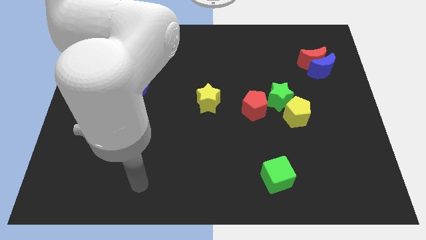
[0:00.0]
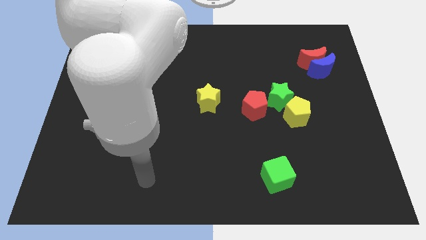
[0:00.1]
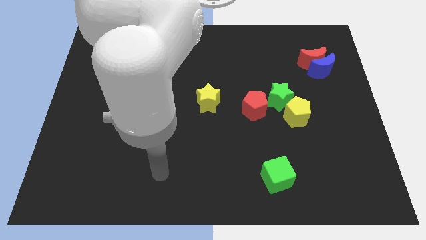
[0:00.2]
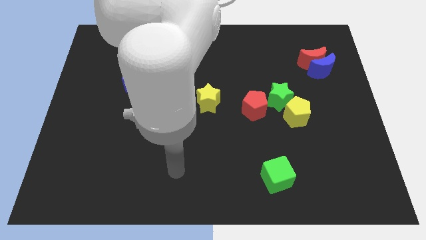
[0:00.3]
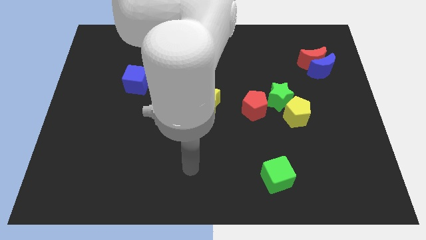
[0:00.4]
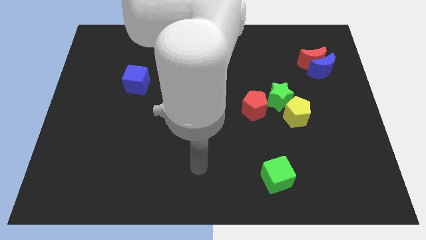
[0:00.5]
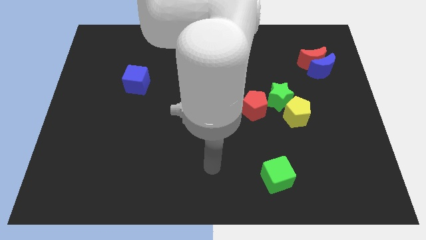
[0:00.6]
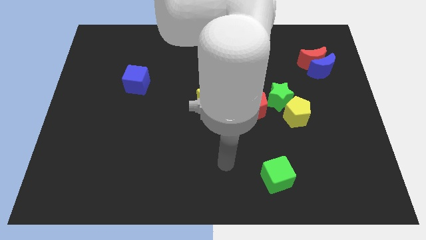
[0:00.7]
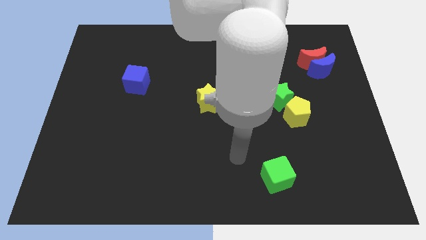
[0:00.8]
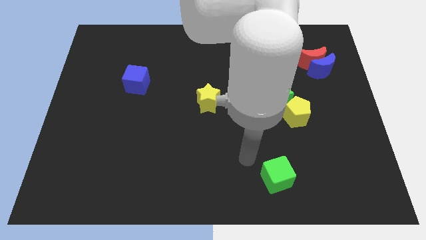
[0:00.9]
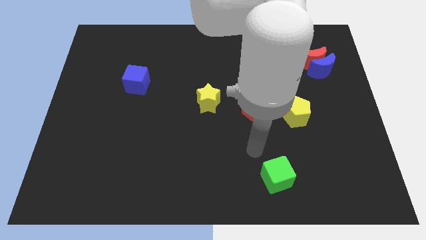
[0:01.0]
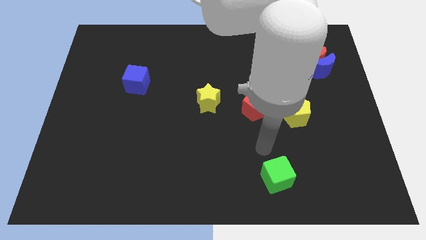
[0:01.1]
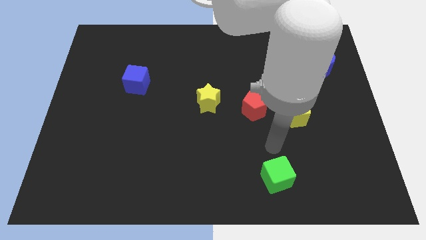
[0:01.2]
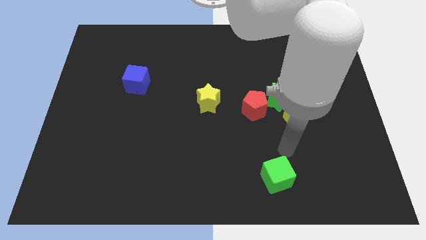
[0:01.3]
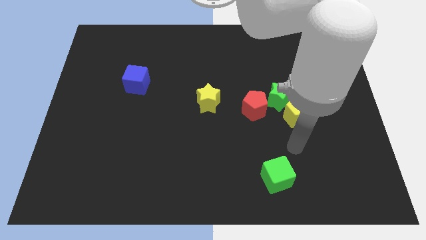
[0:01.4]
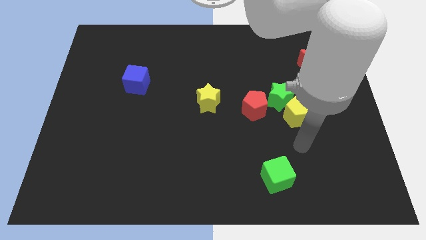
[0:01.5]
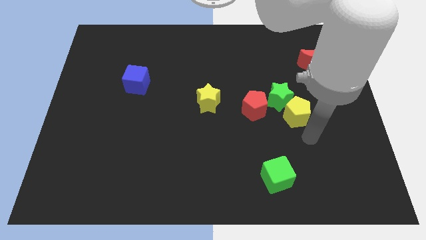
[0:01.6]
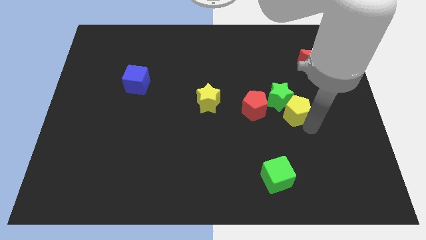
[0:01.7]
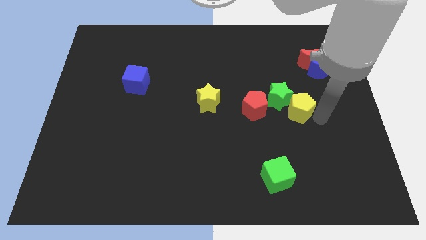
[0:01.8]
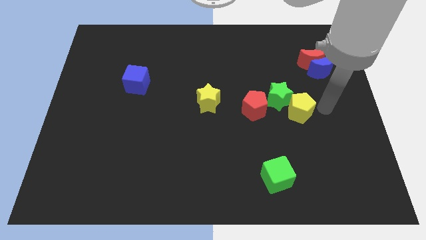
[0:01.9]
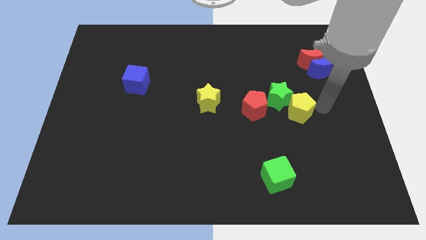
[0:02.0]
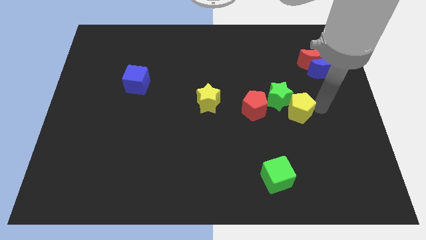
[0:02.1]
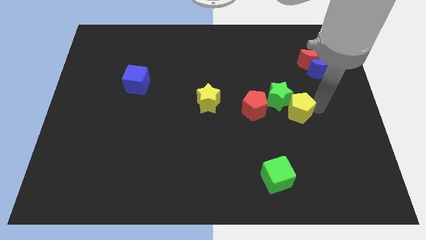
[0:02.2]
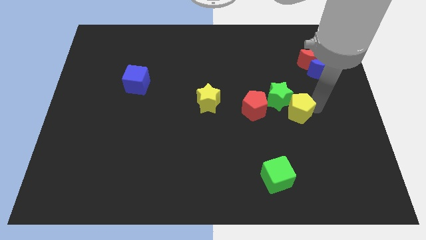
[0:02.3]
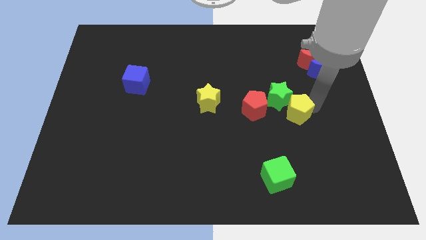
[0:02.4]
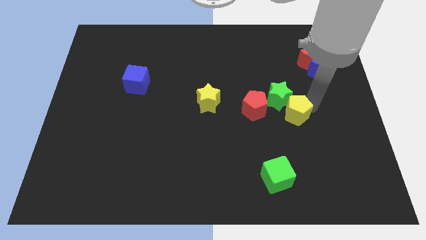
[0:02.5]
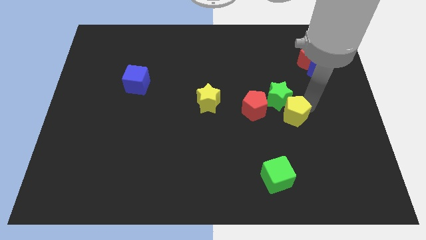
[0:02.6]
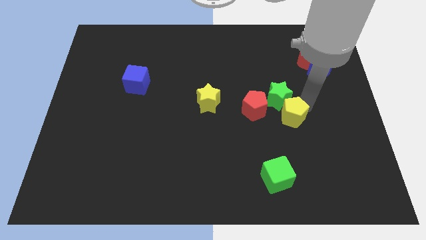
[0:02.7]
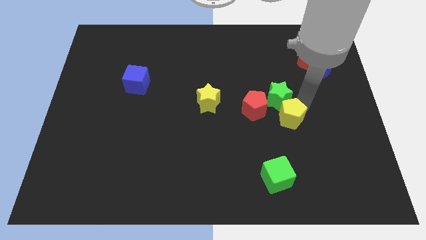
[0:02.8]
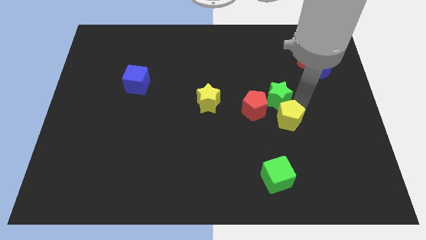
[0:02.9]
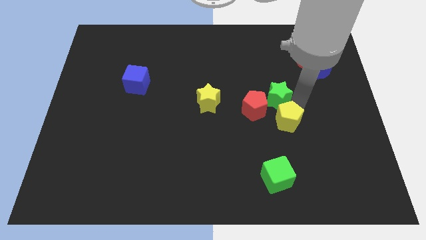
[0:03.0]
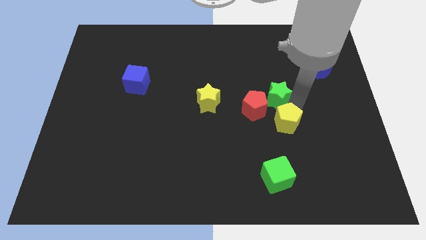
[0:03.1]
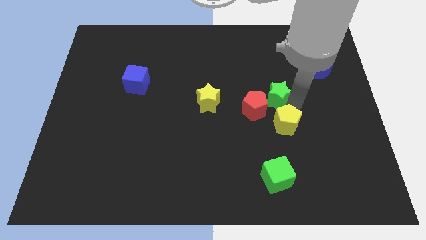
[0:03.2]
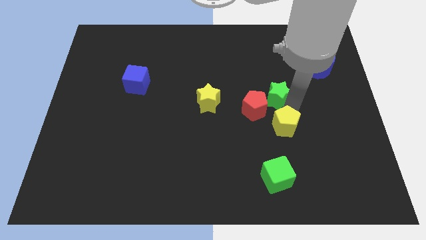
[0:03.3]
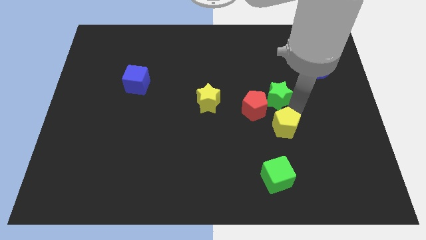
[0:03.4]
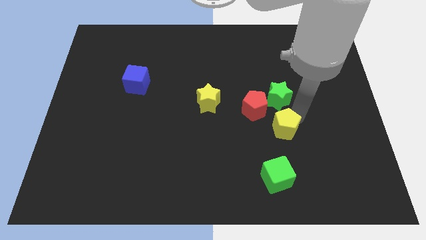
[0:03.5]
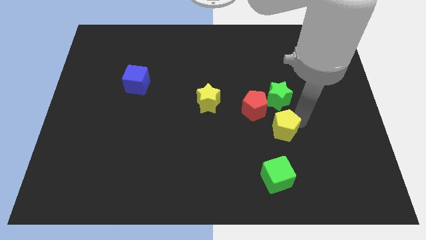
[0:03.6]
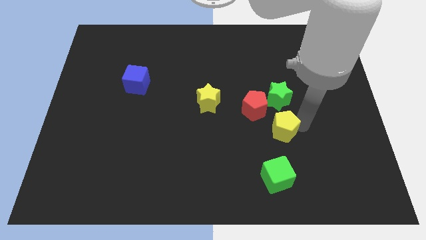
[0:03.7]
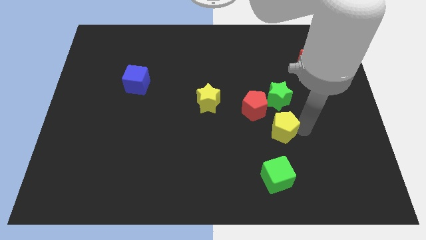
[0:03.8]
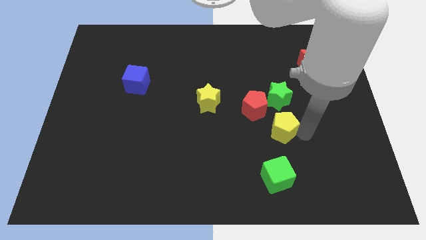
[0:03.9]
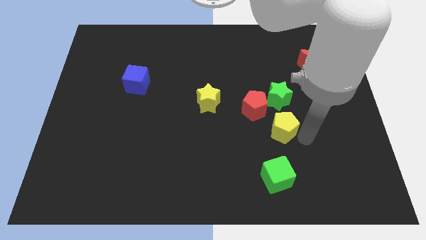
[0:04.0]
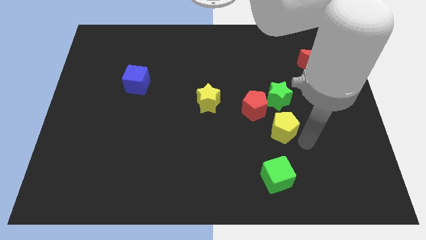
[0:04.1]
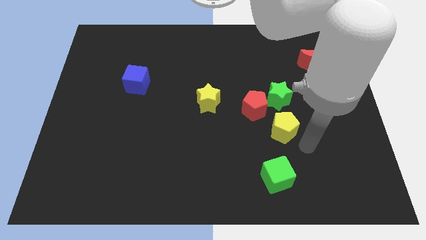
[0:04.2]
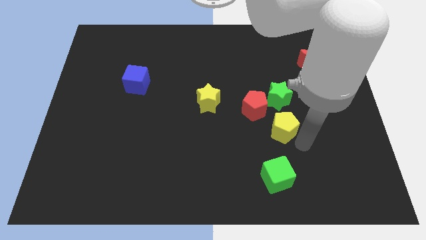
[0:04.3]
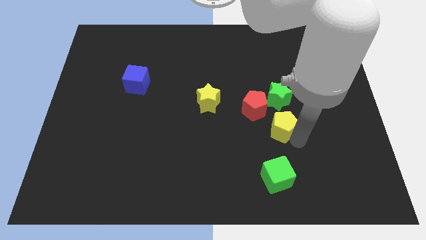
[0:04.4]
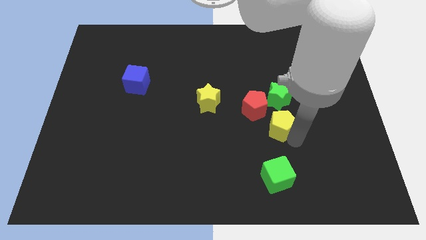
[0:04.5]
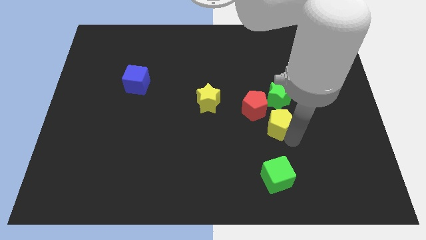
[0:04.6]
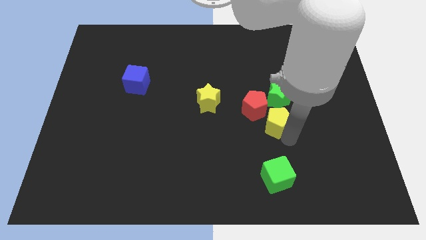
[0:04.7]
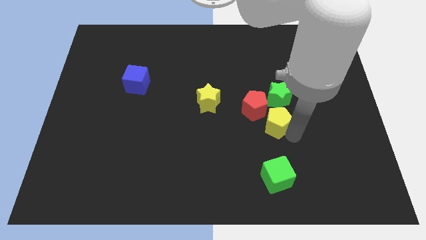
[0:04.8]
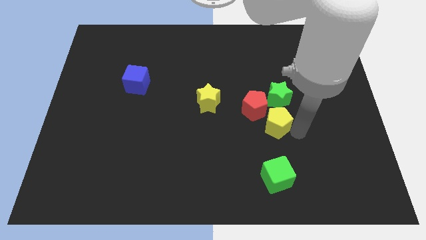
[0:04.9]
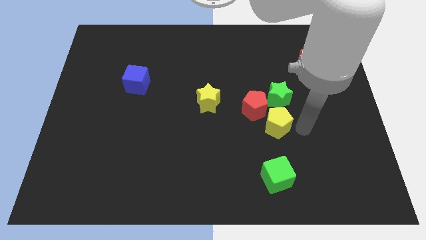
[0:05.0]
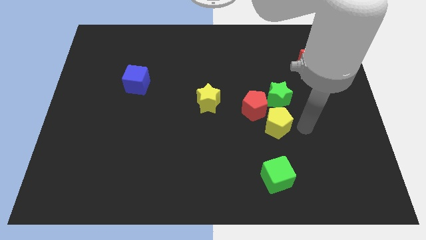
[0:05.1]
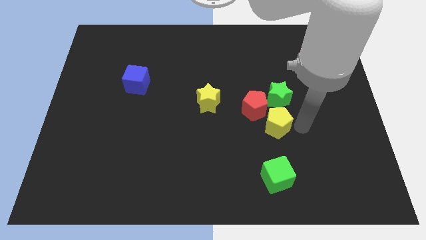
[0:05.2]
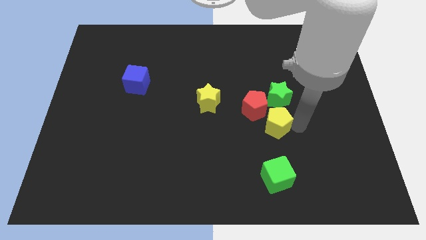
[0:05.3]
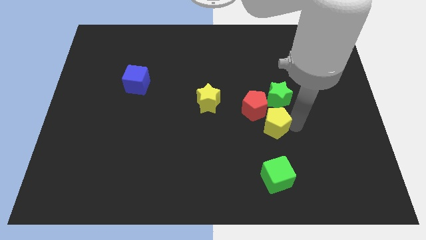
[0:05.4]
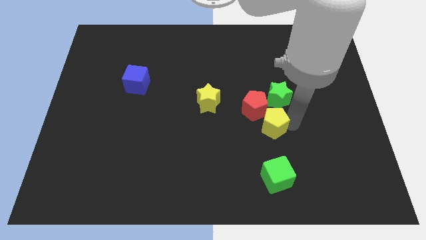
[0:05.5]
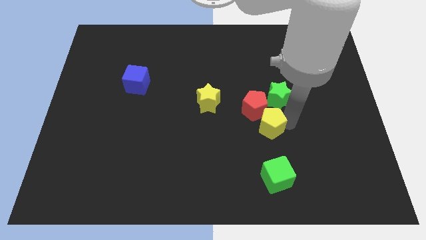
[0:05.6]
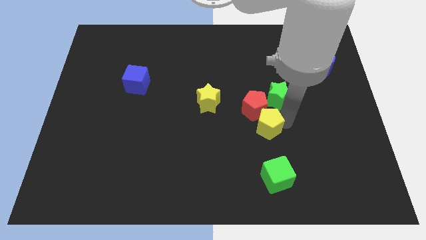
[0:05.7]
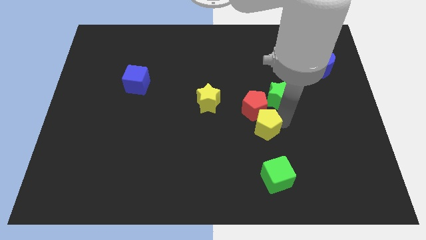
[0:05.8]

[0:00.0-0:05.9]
push the yellow pentagon a little bit to the left

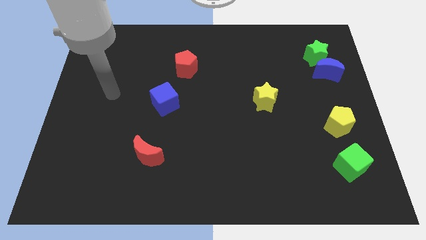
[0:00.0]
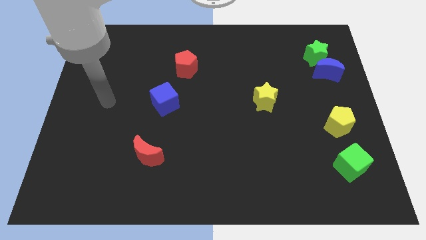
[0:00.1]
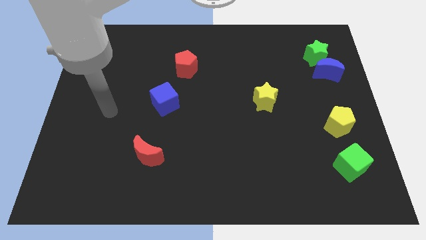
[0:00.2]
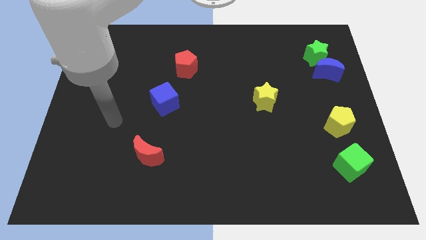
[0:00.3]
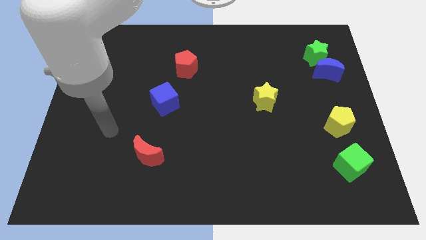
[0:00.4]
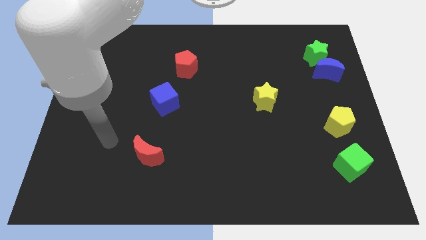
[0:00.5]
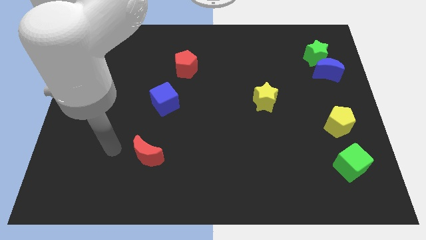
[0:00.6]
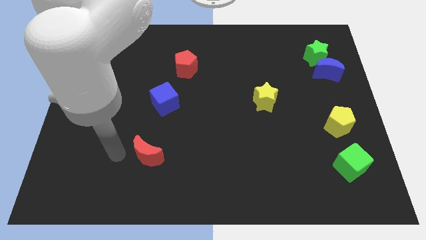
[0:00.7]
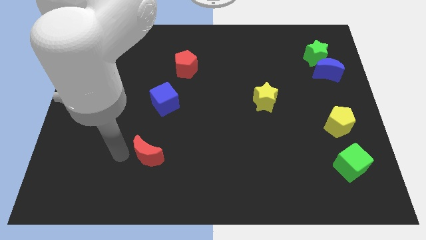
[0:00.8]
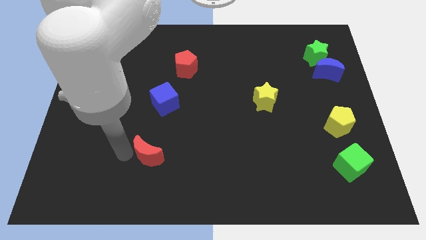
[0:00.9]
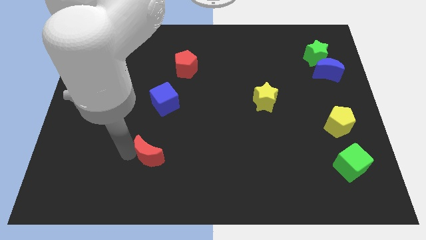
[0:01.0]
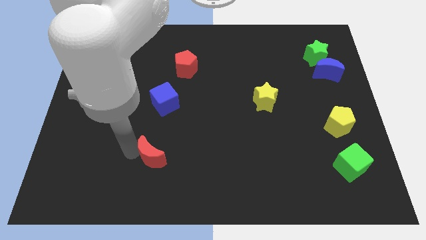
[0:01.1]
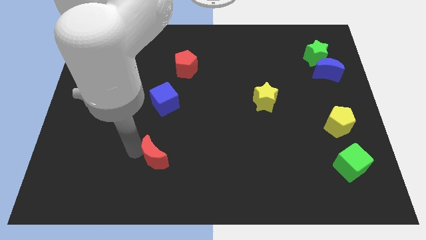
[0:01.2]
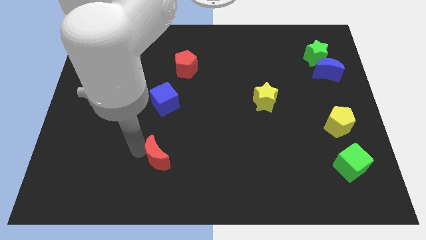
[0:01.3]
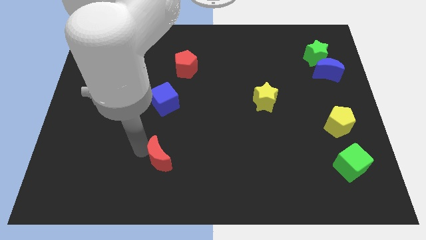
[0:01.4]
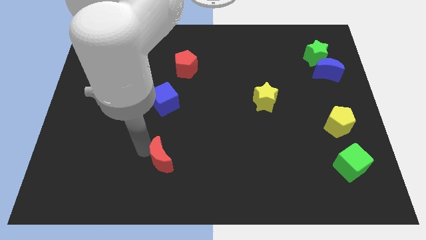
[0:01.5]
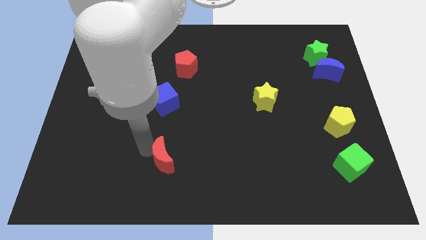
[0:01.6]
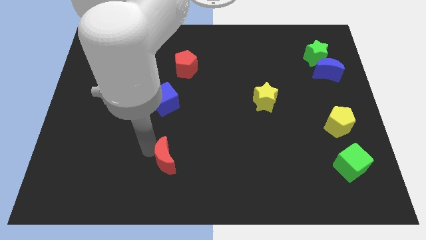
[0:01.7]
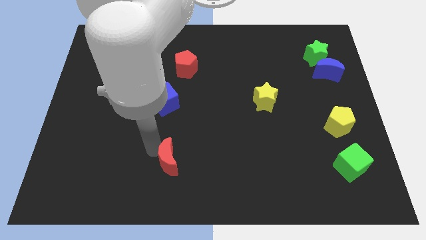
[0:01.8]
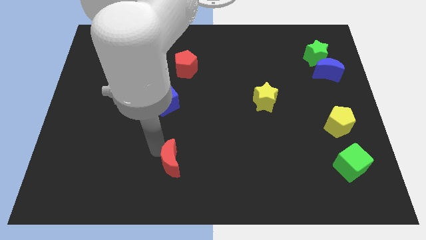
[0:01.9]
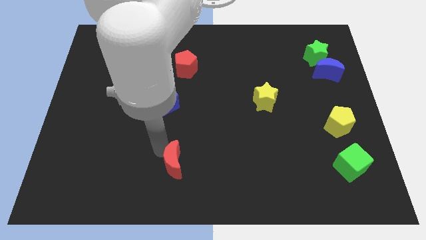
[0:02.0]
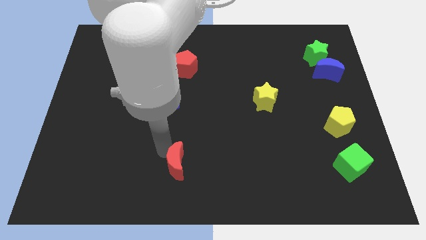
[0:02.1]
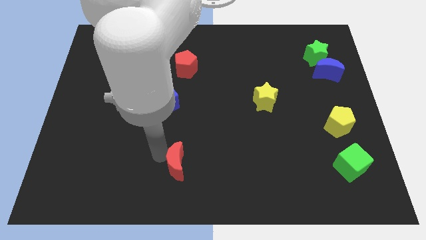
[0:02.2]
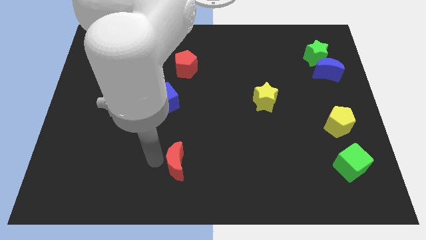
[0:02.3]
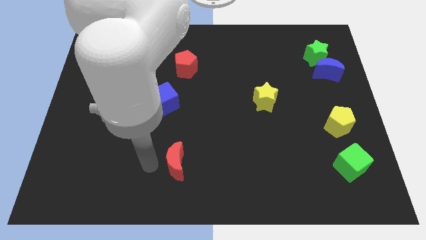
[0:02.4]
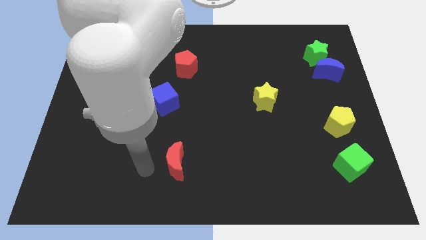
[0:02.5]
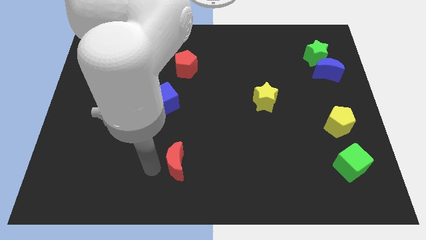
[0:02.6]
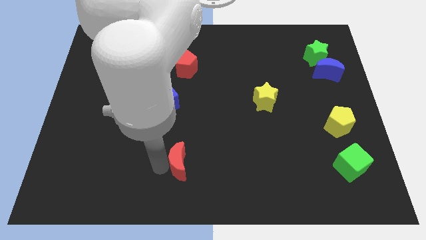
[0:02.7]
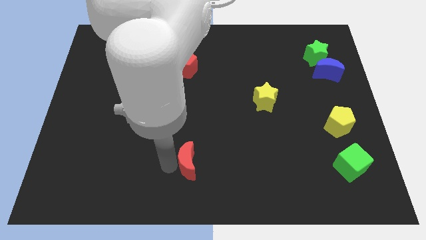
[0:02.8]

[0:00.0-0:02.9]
push the red moon somewhat to the right
